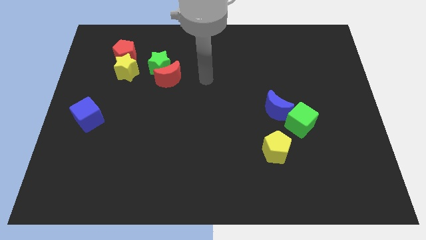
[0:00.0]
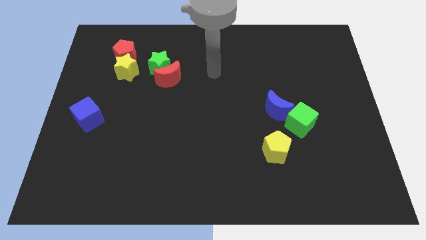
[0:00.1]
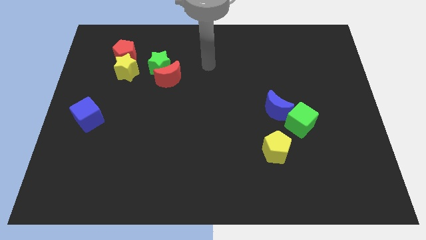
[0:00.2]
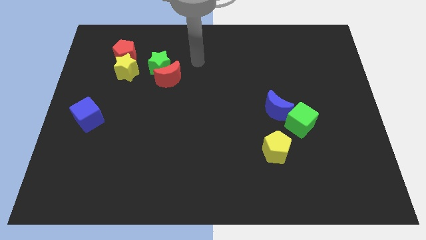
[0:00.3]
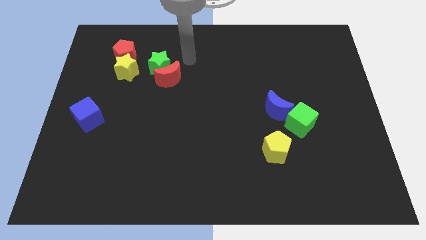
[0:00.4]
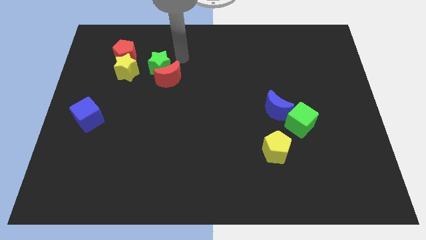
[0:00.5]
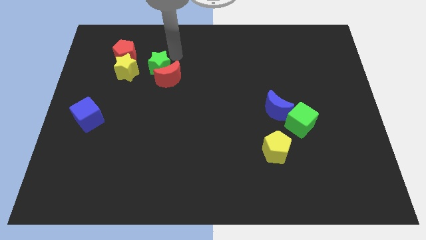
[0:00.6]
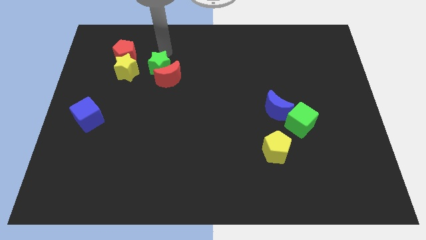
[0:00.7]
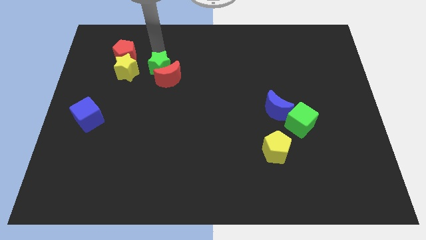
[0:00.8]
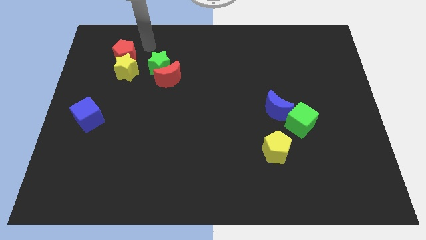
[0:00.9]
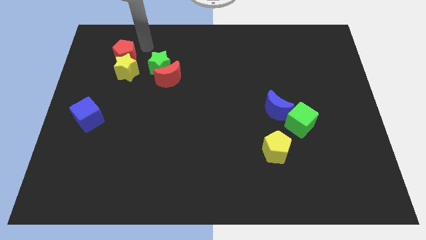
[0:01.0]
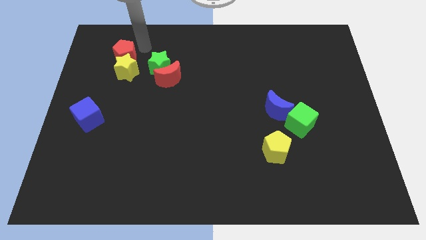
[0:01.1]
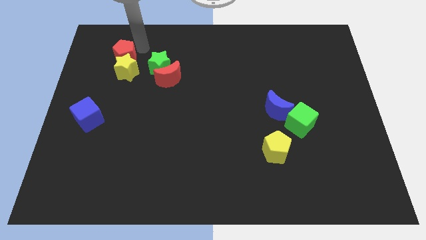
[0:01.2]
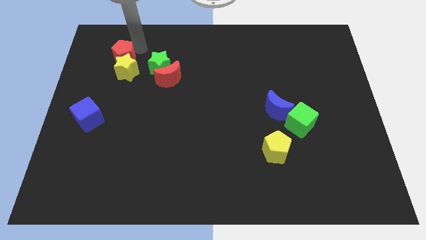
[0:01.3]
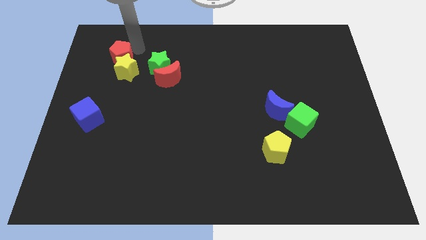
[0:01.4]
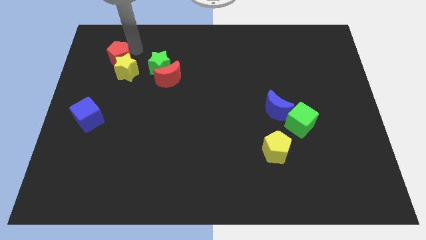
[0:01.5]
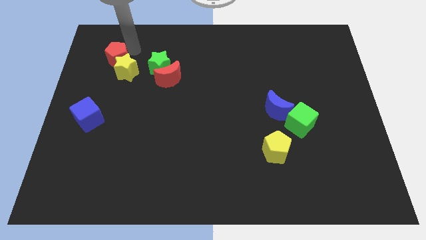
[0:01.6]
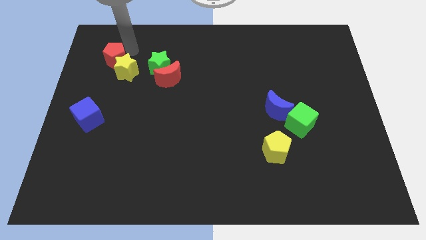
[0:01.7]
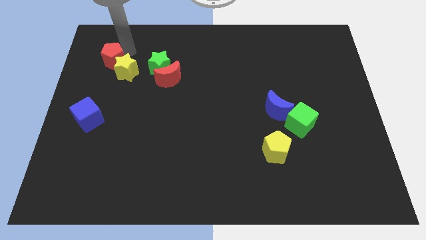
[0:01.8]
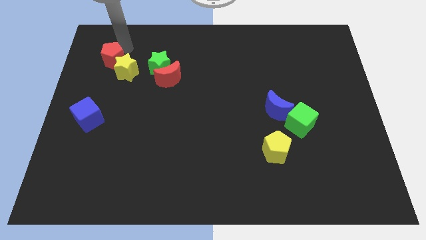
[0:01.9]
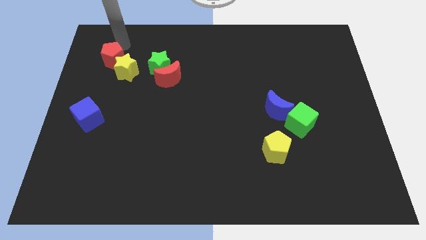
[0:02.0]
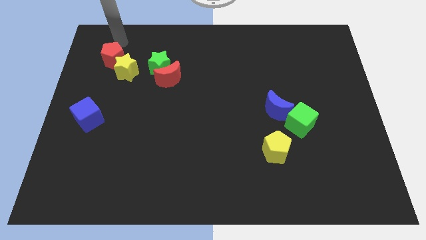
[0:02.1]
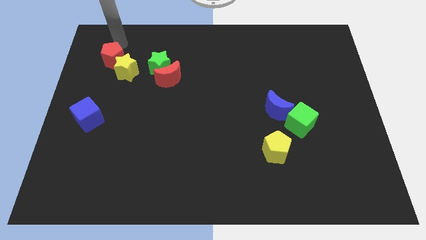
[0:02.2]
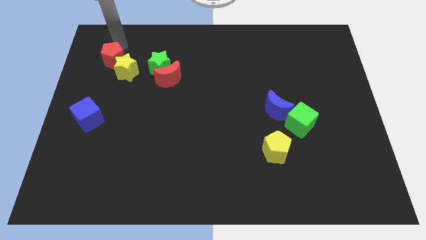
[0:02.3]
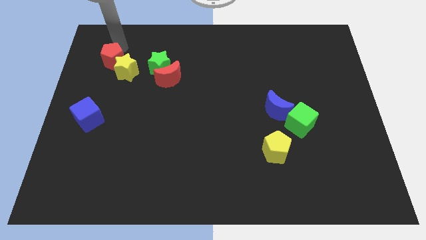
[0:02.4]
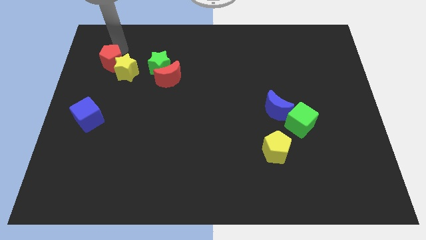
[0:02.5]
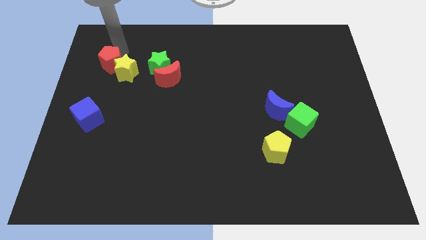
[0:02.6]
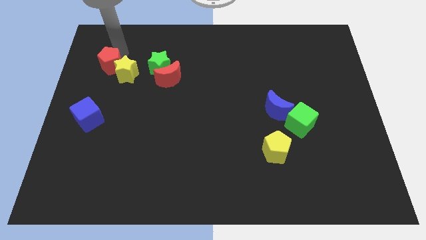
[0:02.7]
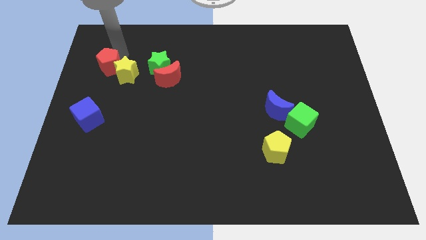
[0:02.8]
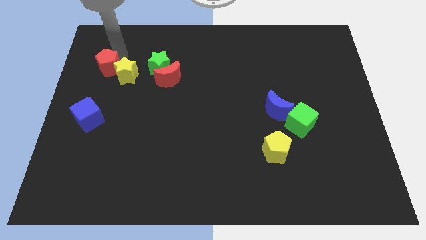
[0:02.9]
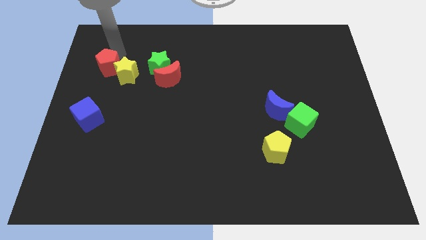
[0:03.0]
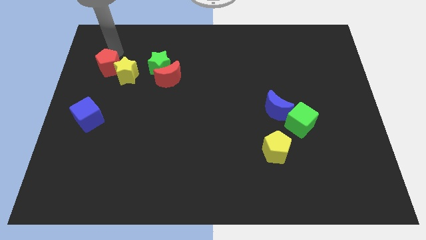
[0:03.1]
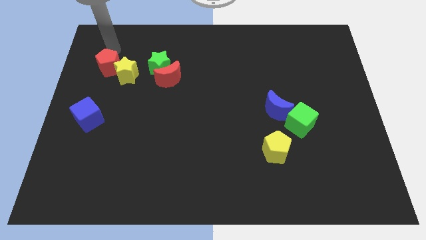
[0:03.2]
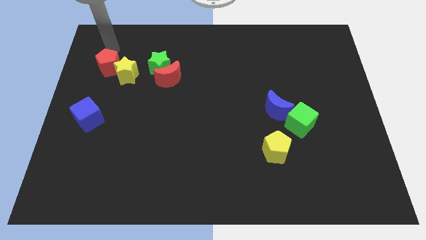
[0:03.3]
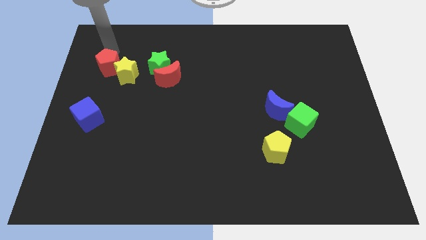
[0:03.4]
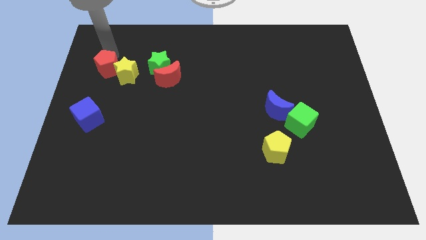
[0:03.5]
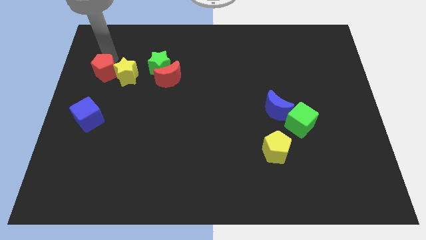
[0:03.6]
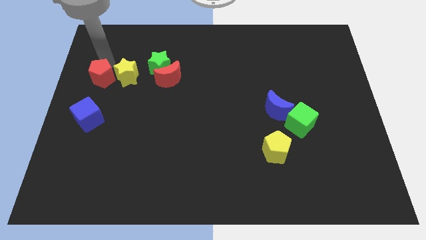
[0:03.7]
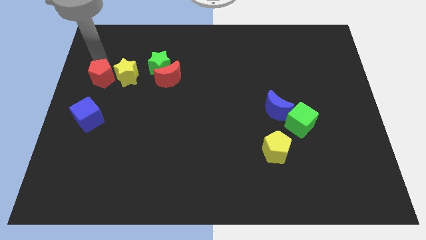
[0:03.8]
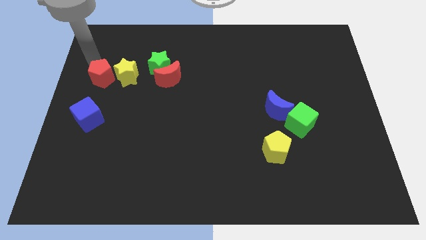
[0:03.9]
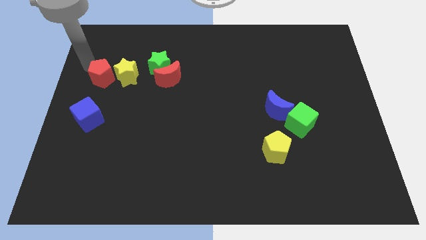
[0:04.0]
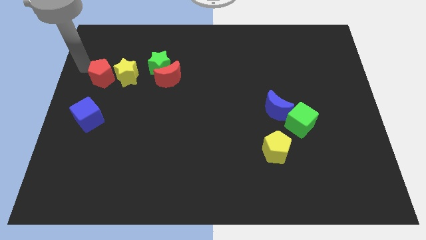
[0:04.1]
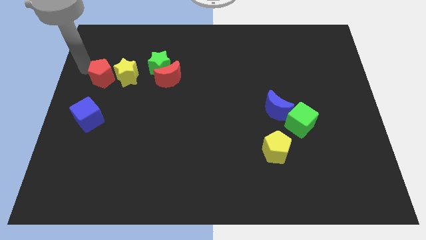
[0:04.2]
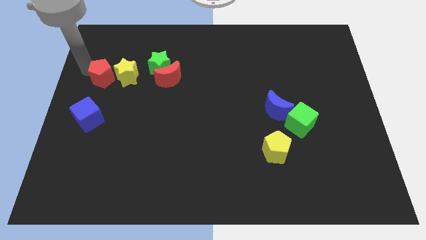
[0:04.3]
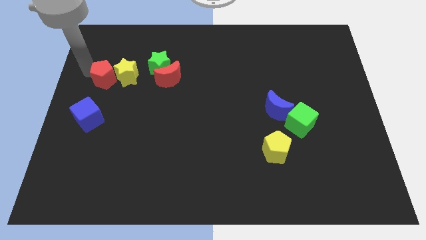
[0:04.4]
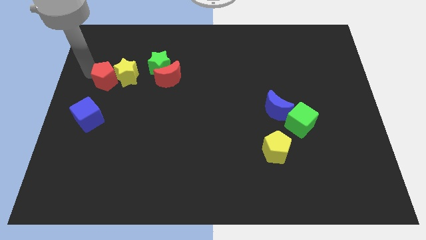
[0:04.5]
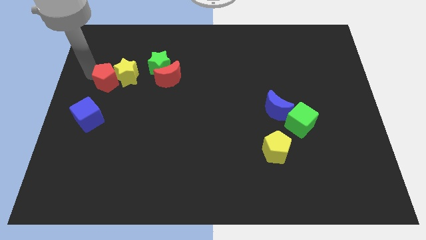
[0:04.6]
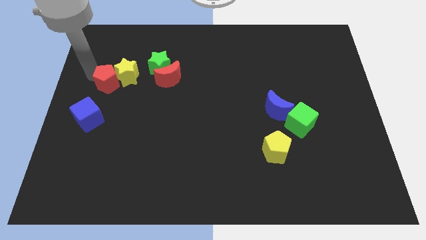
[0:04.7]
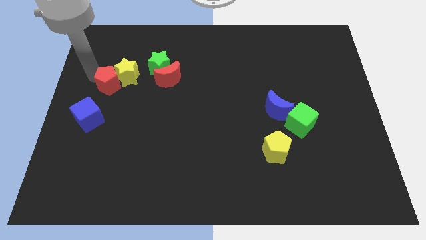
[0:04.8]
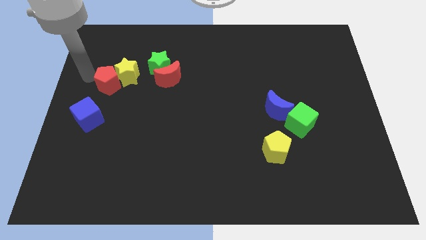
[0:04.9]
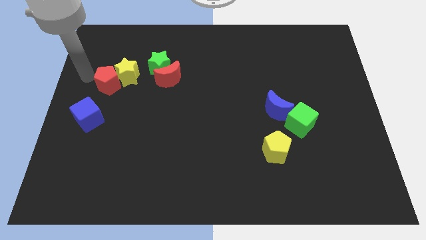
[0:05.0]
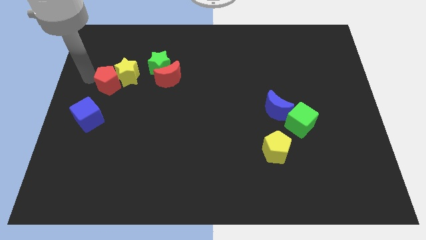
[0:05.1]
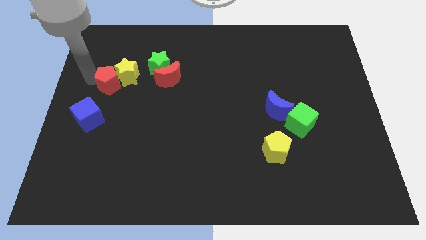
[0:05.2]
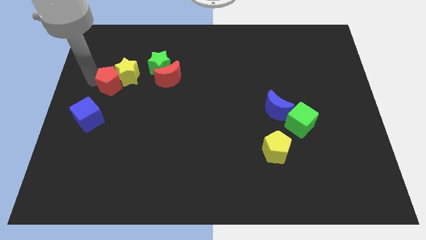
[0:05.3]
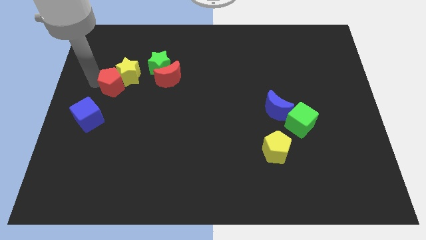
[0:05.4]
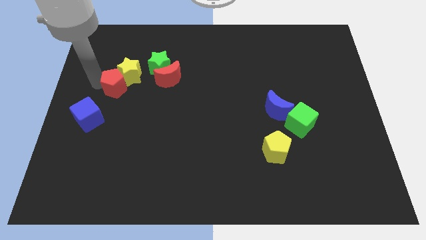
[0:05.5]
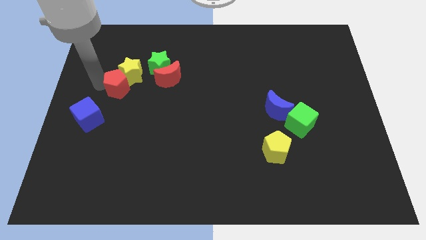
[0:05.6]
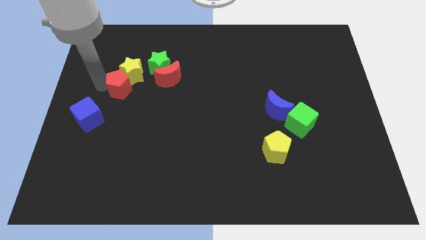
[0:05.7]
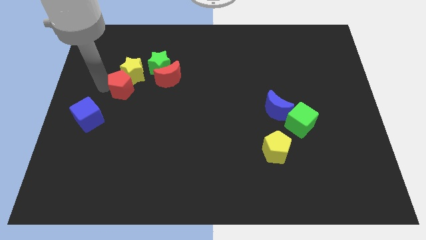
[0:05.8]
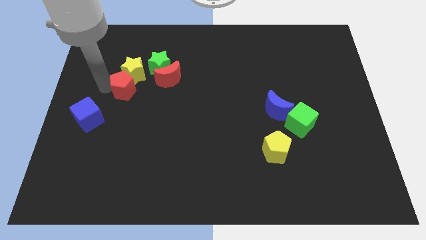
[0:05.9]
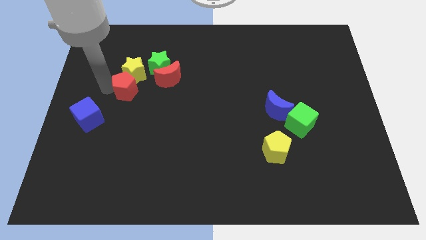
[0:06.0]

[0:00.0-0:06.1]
push the red pentagon somewhat down and to the right diagonally

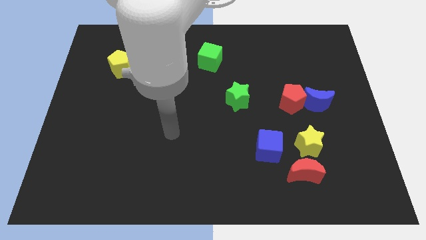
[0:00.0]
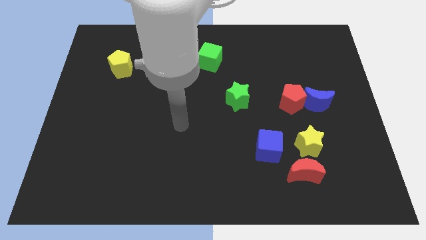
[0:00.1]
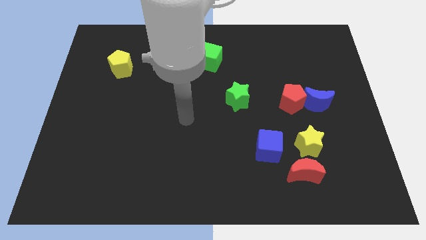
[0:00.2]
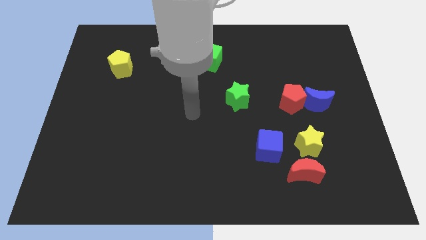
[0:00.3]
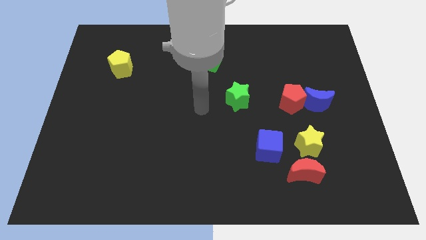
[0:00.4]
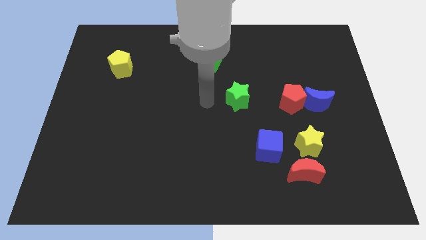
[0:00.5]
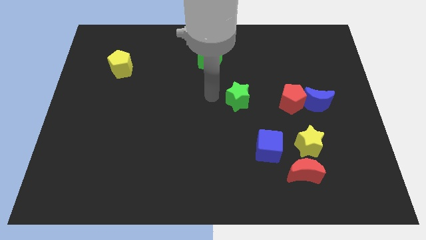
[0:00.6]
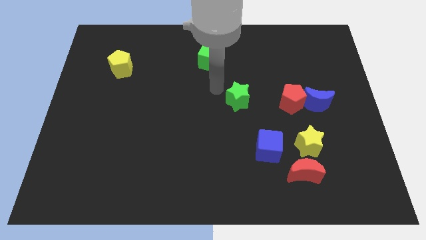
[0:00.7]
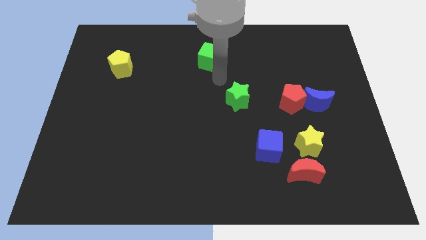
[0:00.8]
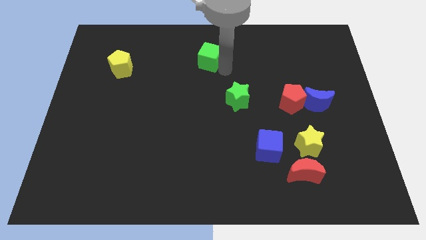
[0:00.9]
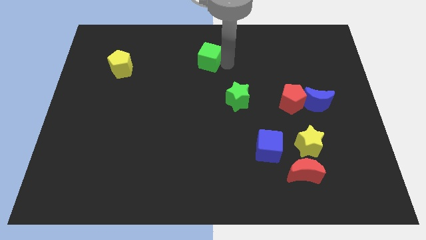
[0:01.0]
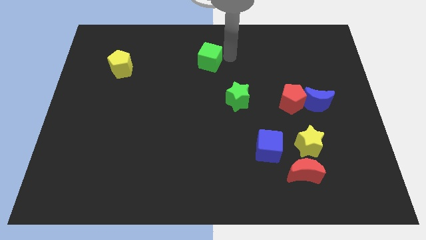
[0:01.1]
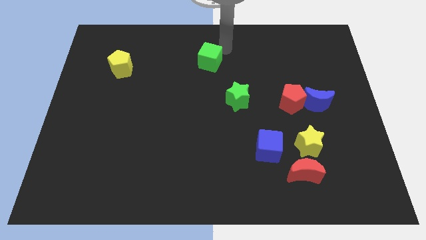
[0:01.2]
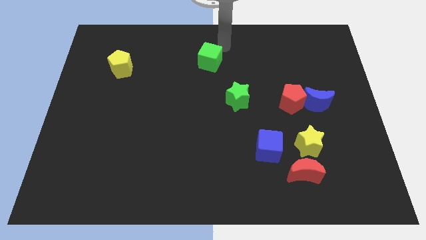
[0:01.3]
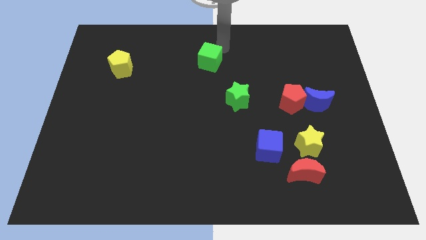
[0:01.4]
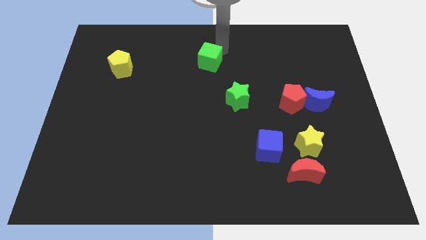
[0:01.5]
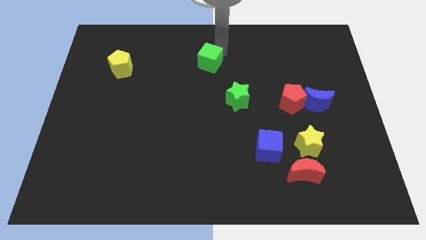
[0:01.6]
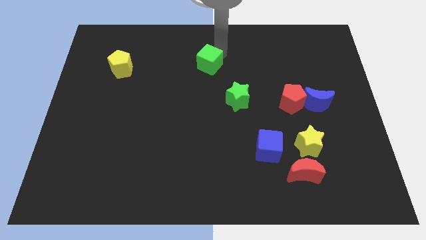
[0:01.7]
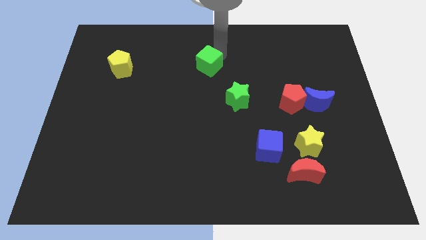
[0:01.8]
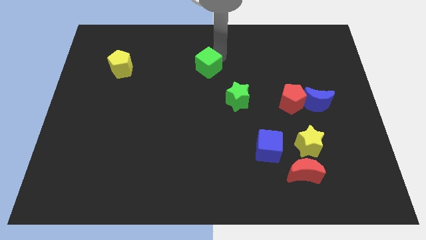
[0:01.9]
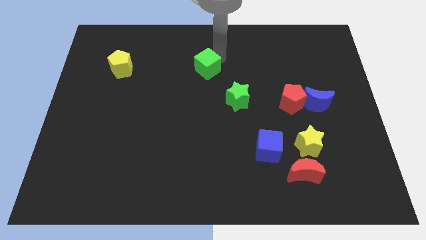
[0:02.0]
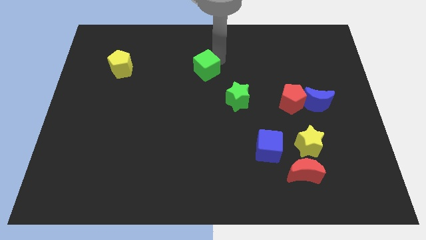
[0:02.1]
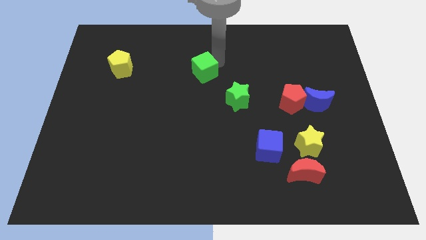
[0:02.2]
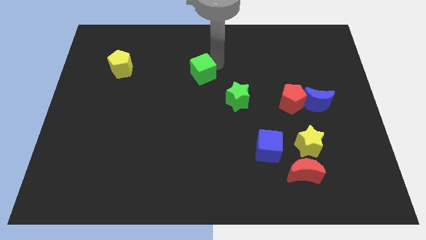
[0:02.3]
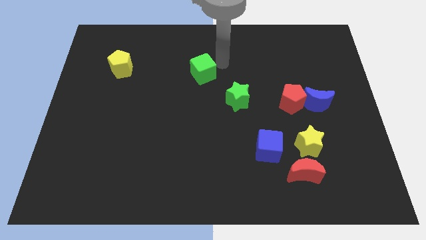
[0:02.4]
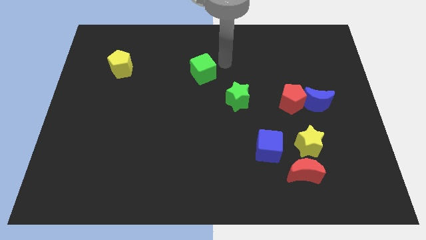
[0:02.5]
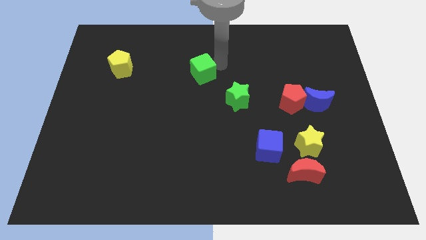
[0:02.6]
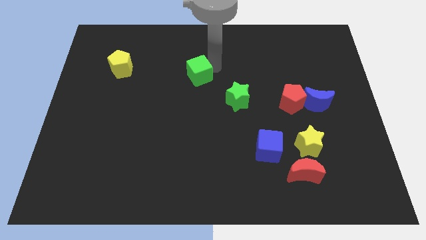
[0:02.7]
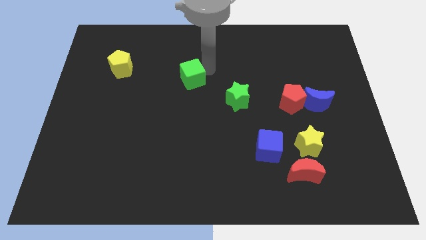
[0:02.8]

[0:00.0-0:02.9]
push the green cube a little down and left diagonally
